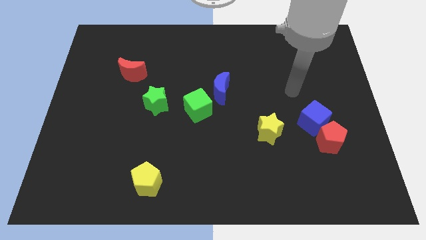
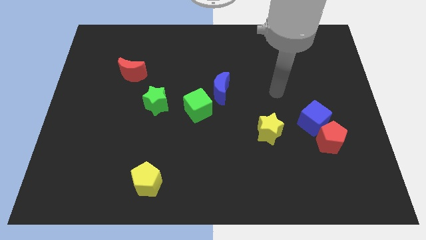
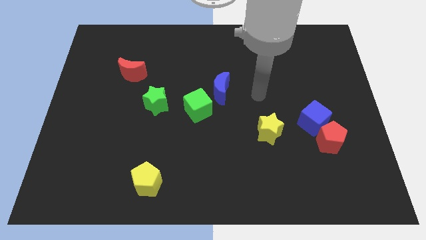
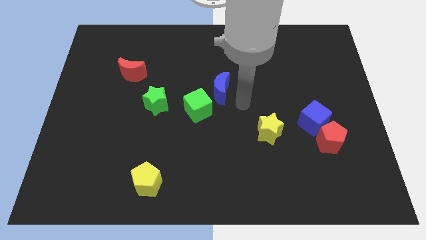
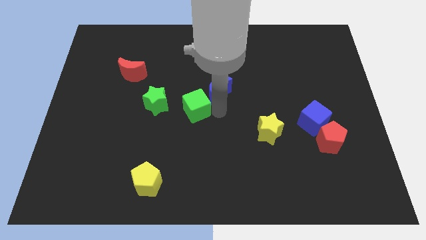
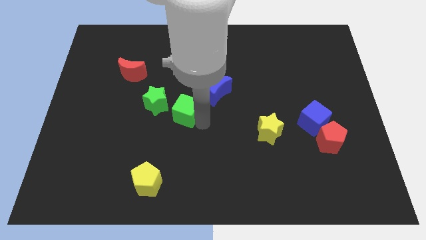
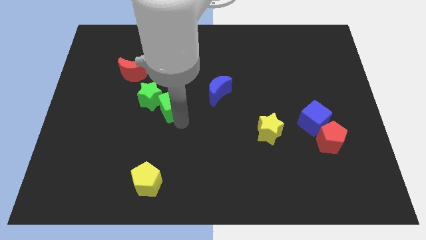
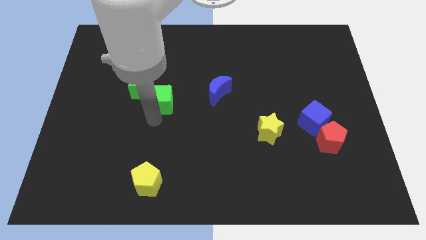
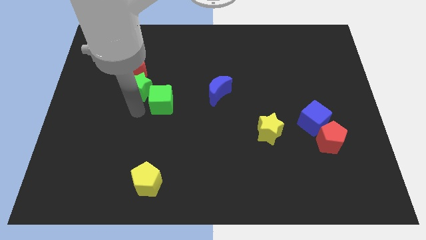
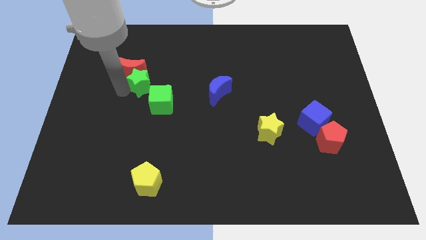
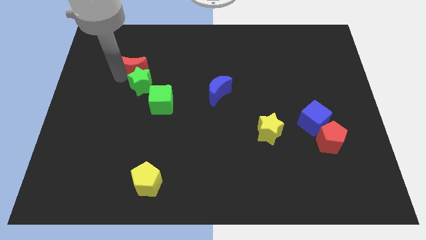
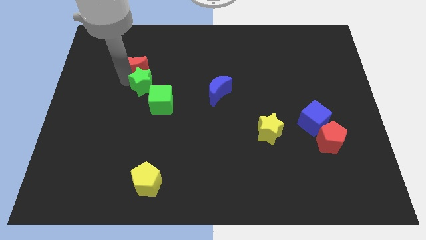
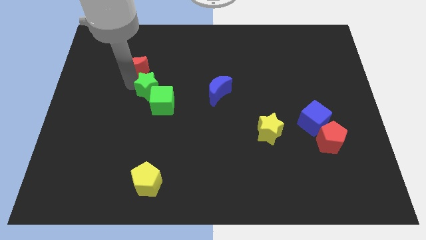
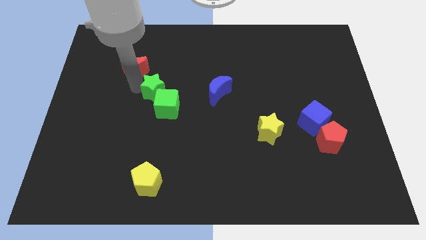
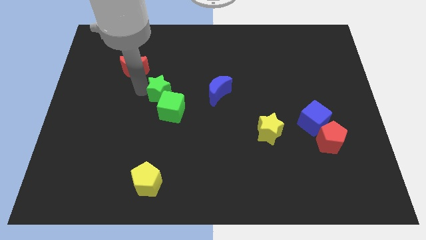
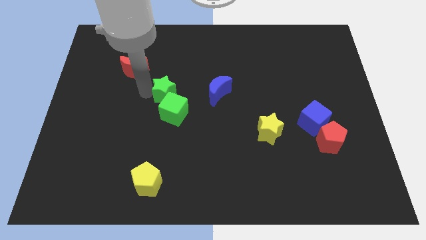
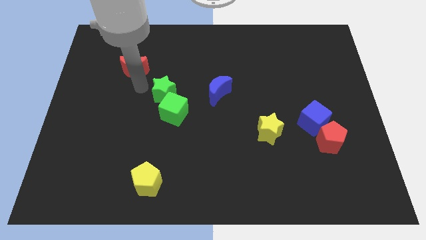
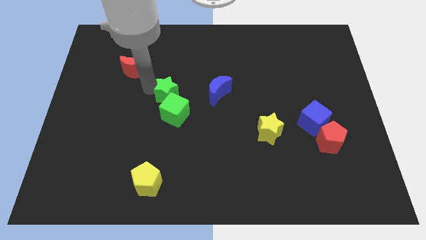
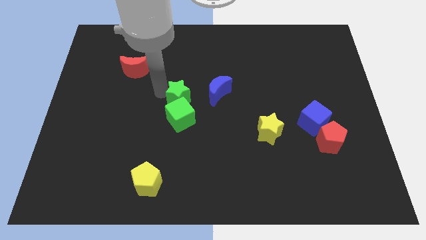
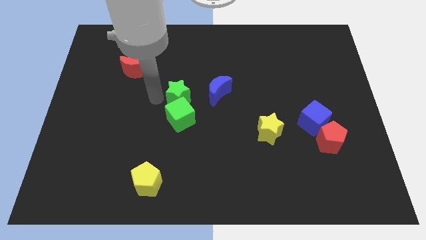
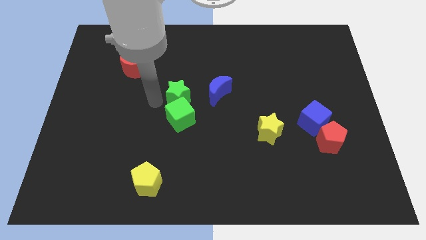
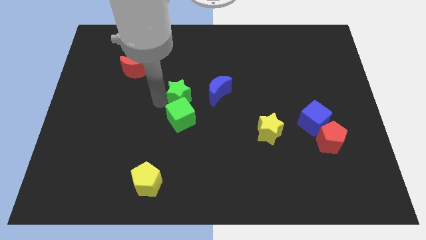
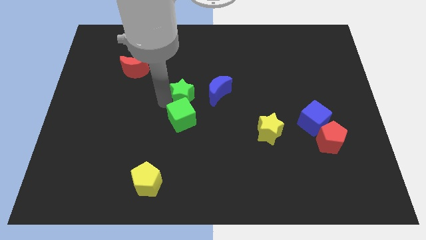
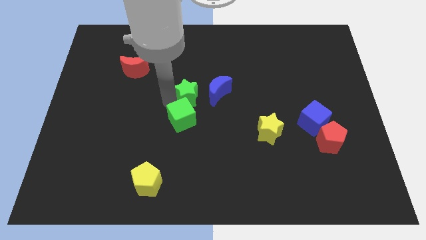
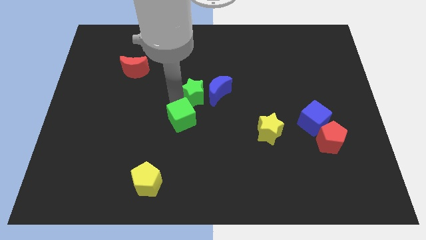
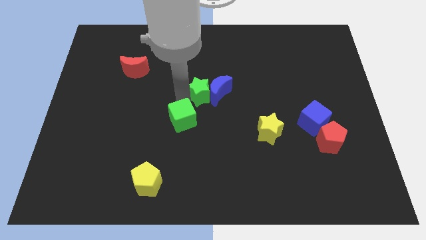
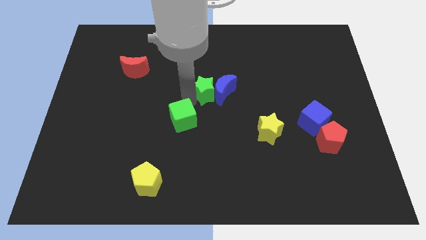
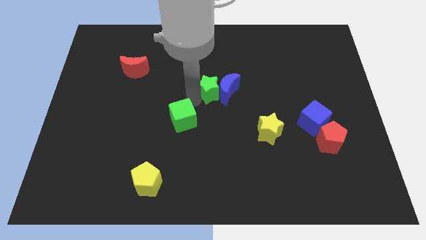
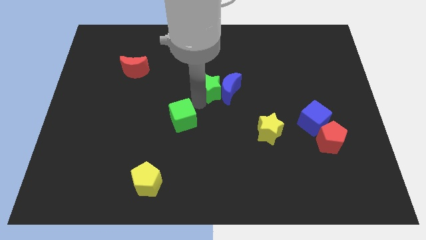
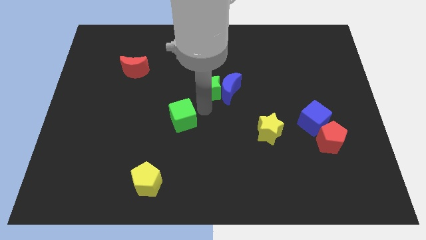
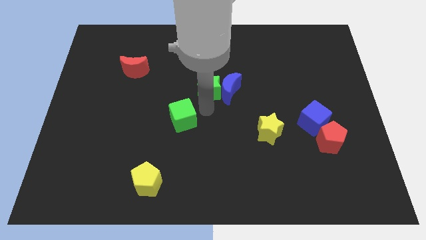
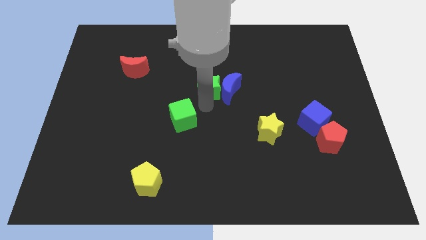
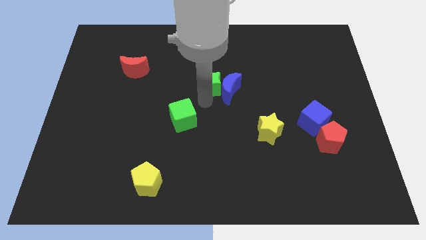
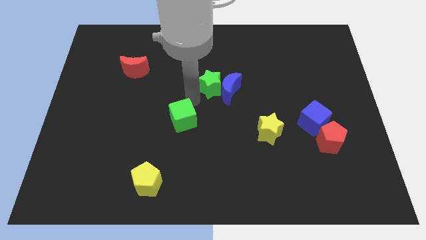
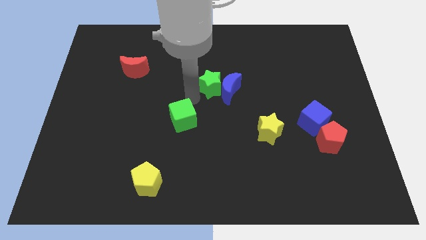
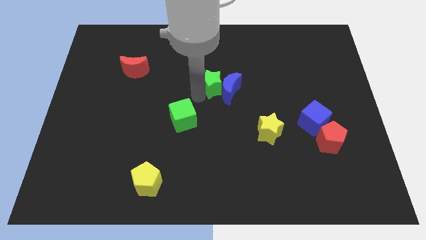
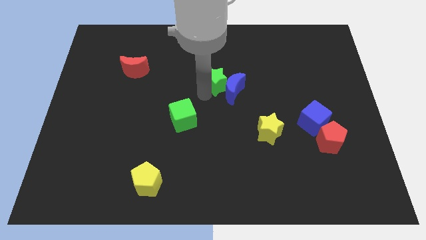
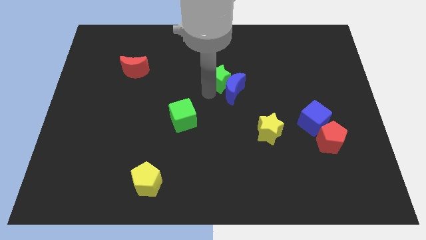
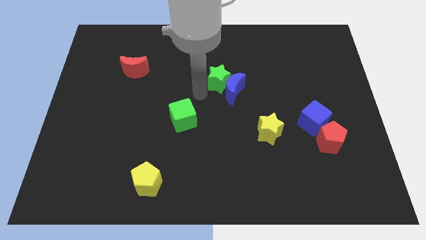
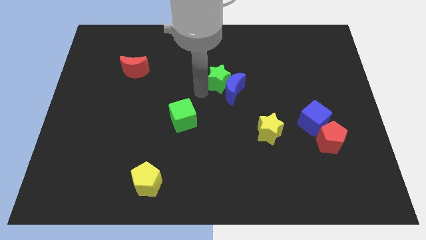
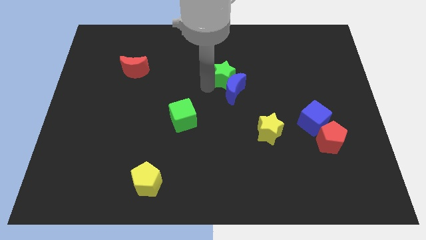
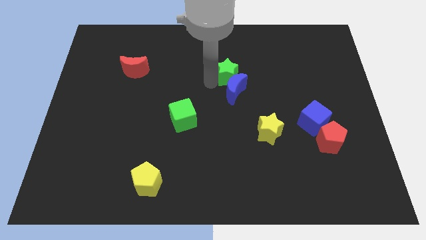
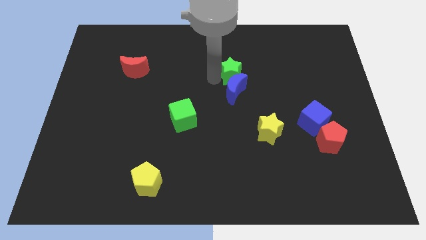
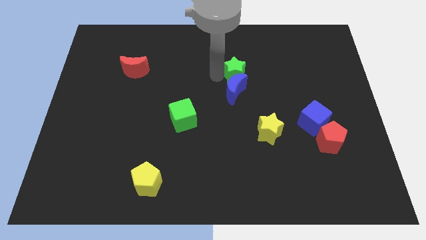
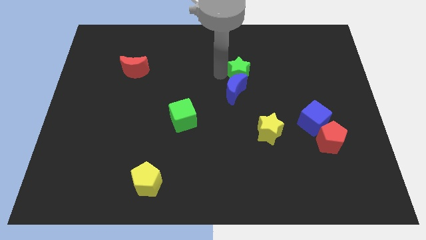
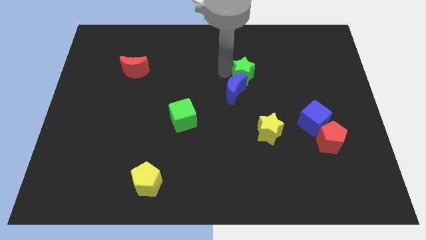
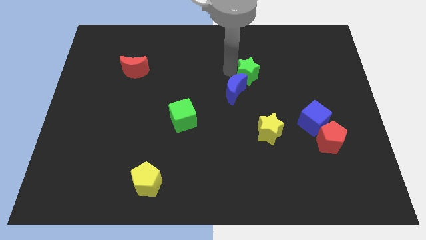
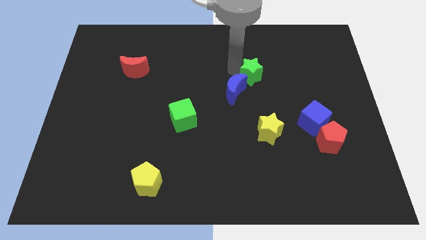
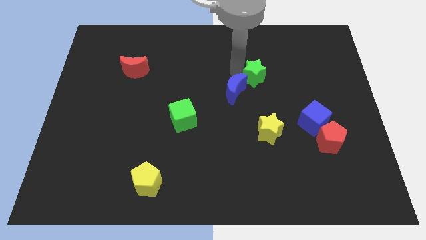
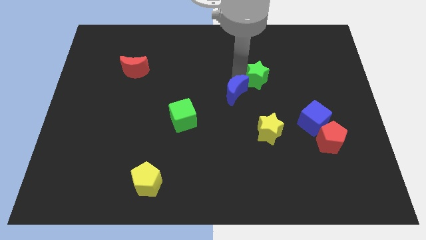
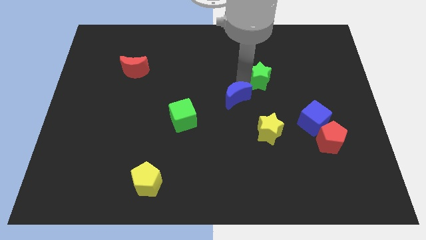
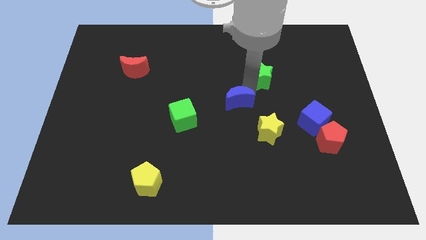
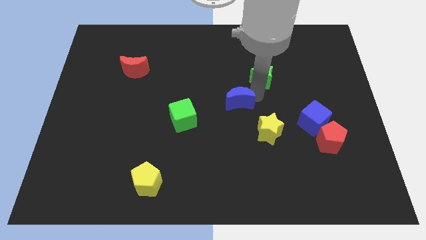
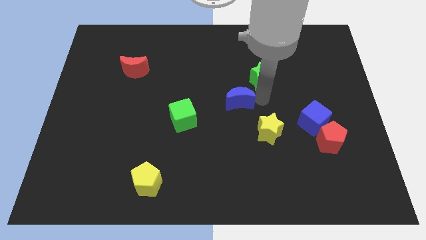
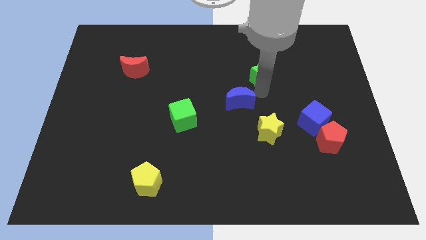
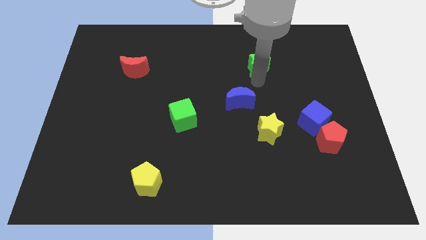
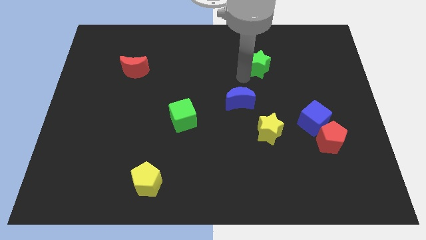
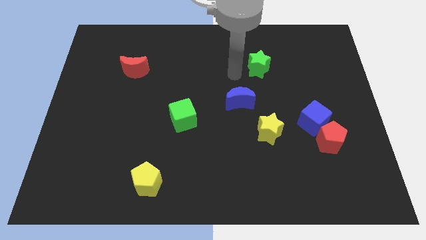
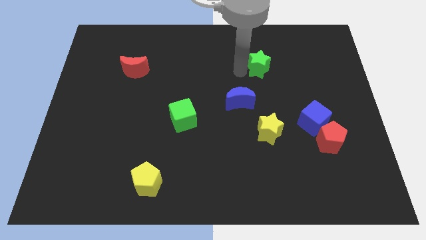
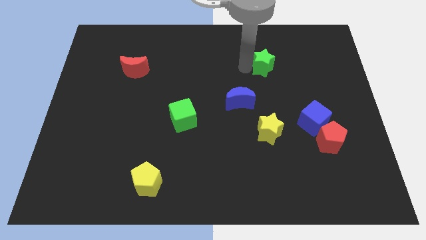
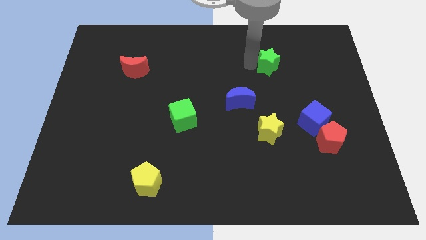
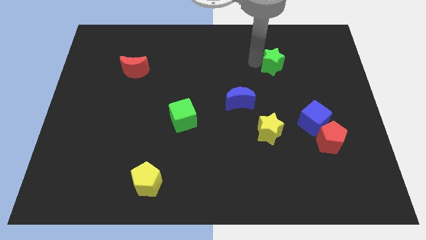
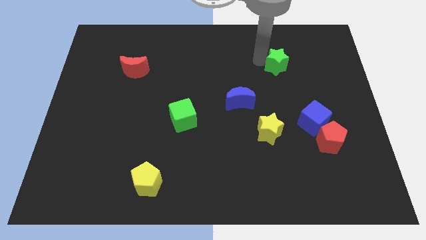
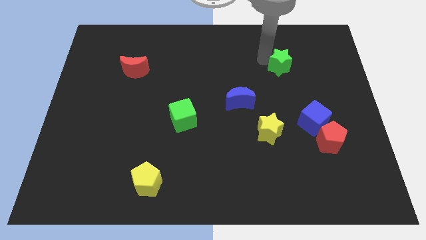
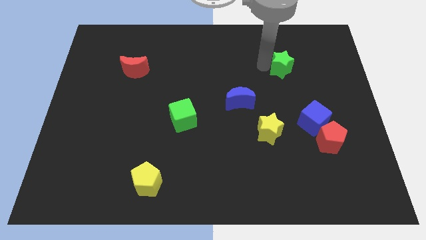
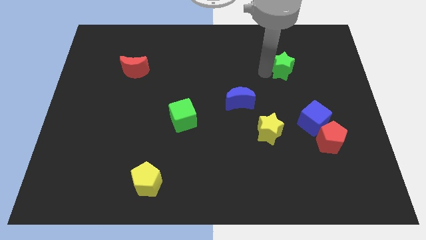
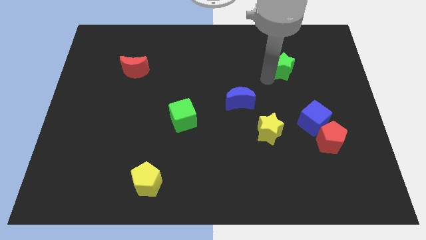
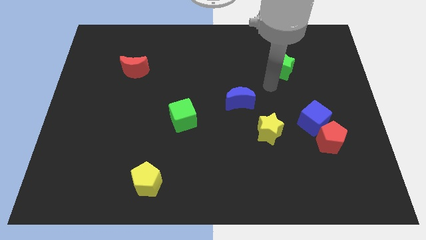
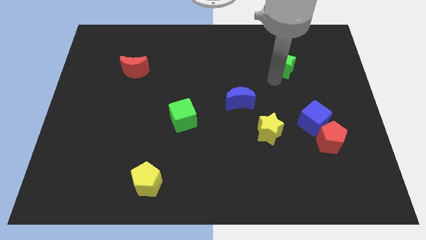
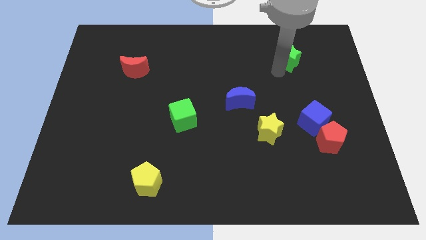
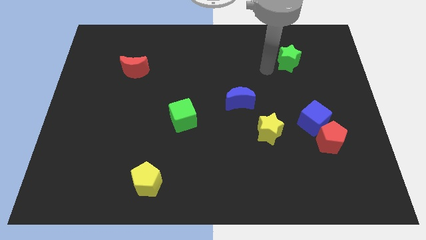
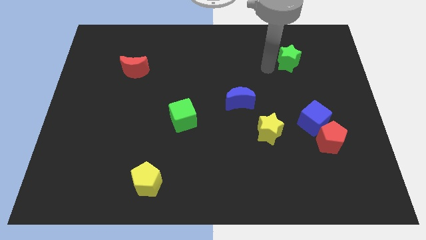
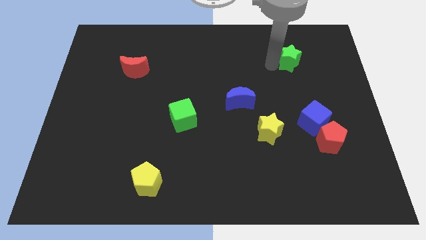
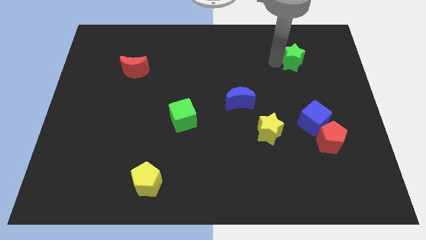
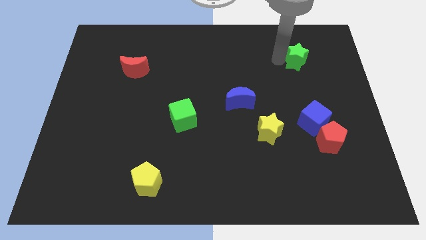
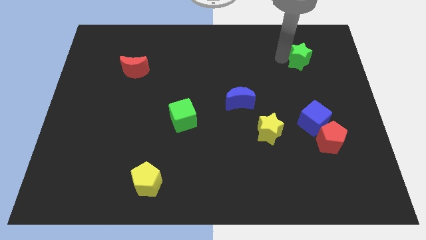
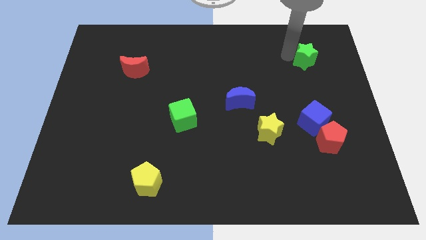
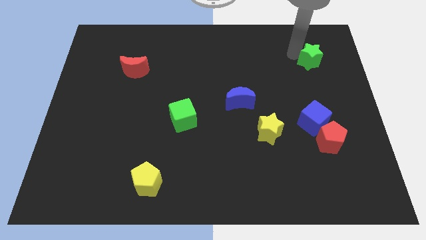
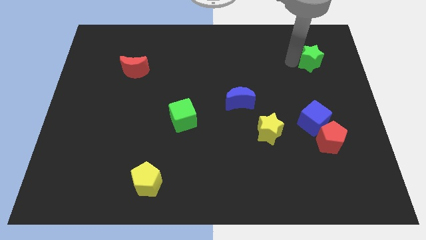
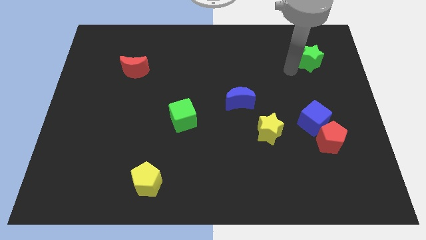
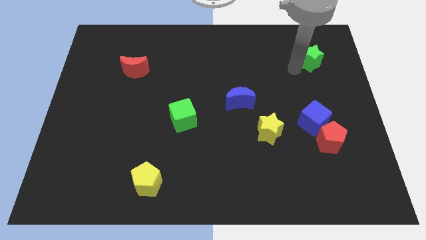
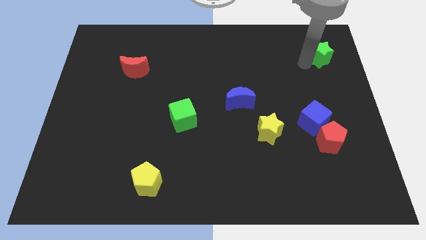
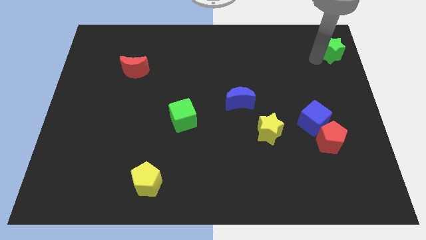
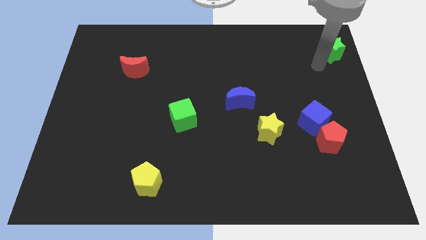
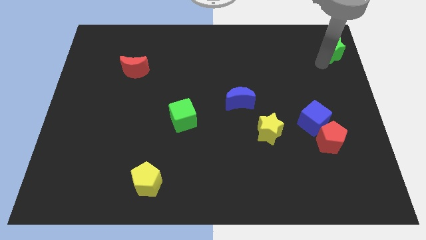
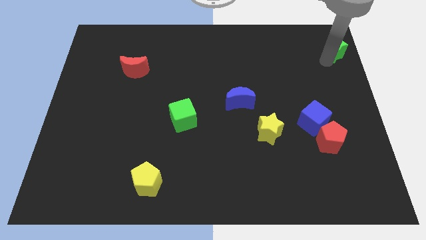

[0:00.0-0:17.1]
slide the green star to the top right of the board
